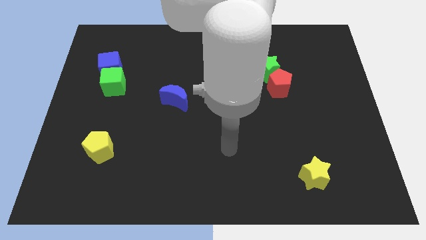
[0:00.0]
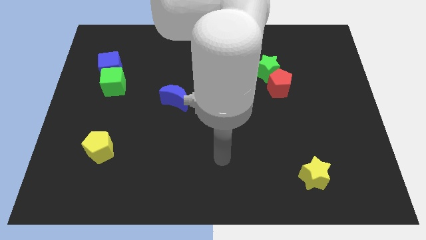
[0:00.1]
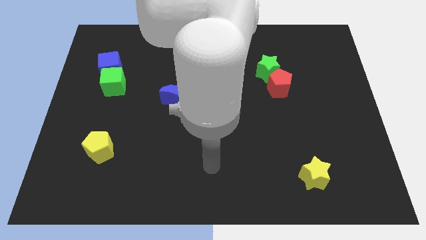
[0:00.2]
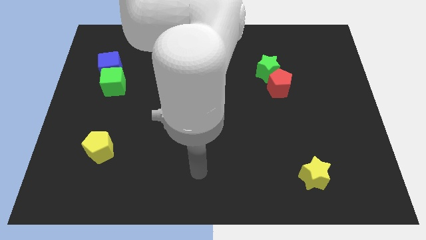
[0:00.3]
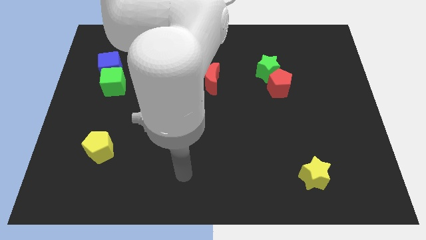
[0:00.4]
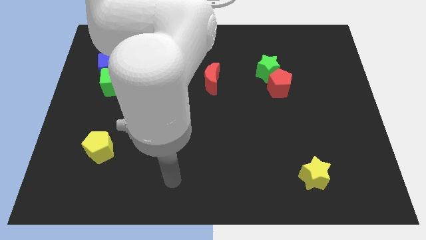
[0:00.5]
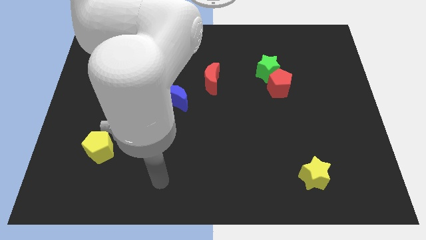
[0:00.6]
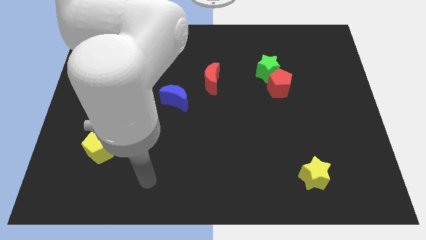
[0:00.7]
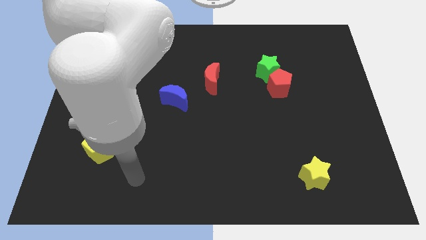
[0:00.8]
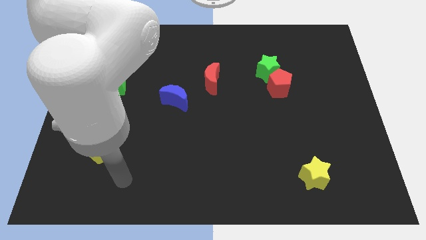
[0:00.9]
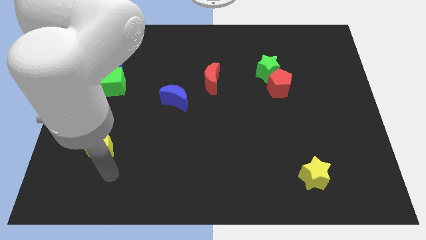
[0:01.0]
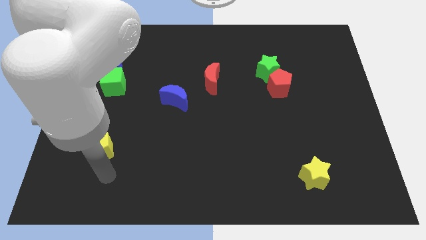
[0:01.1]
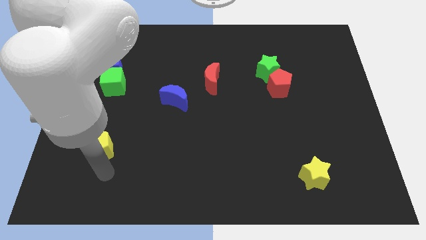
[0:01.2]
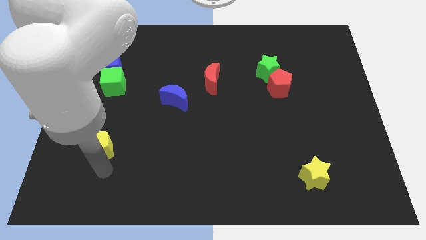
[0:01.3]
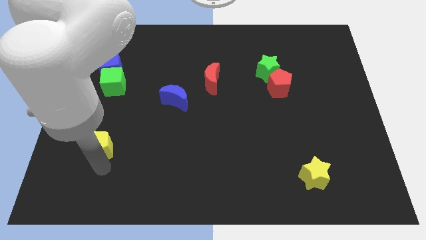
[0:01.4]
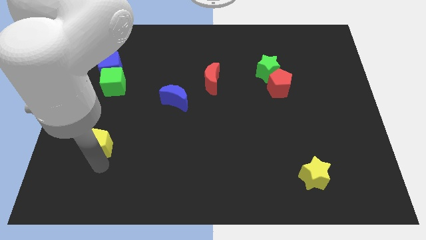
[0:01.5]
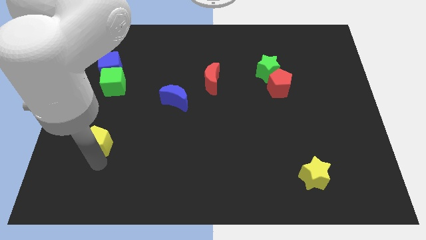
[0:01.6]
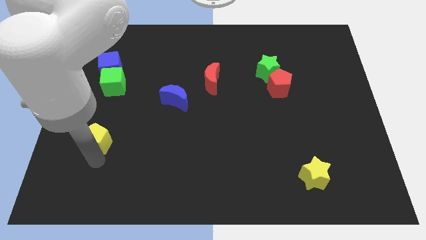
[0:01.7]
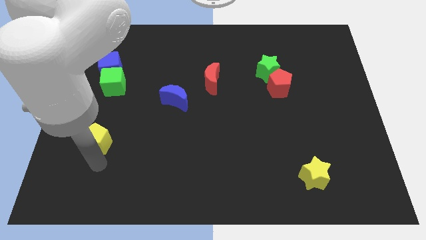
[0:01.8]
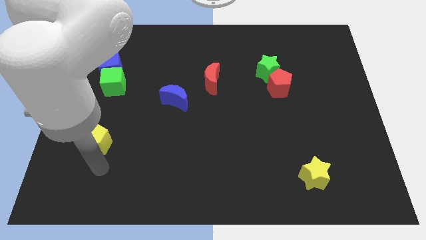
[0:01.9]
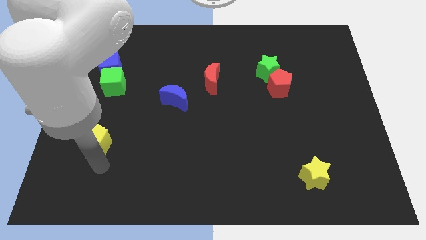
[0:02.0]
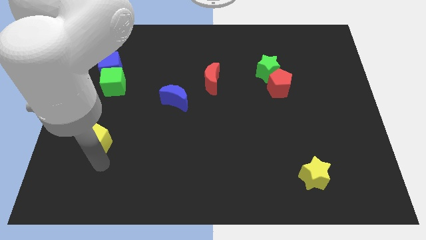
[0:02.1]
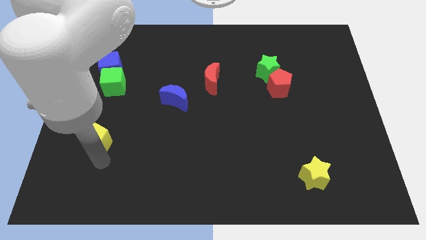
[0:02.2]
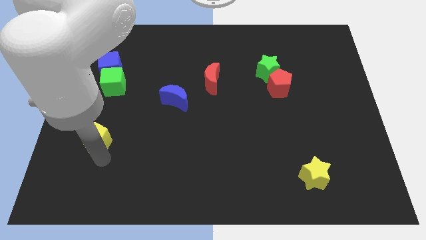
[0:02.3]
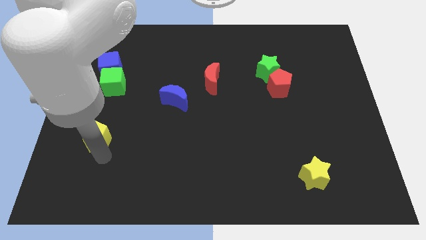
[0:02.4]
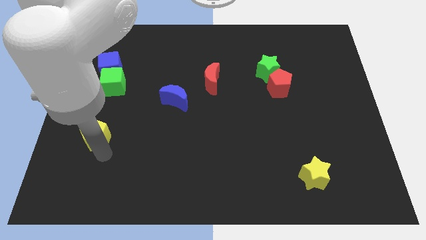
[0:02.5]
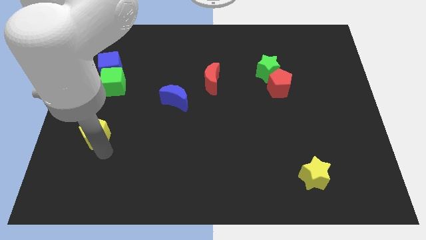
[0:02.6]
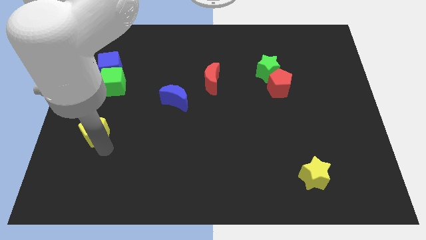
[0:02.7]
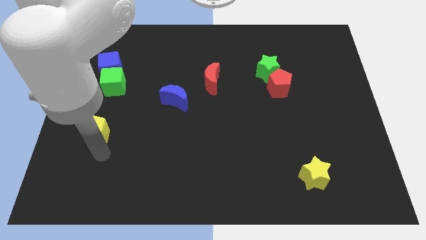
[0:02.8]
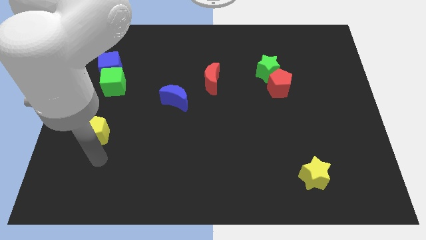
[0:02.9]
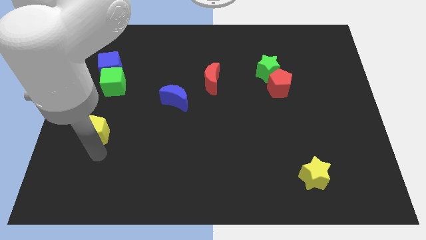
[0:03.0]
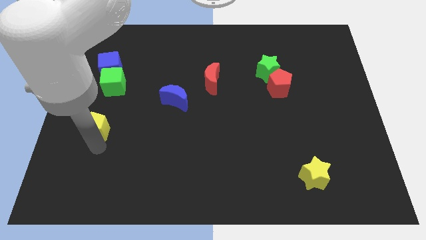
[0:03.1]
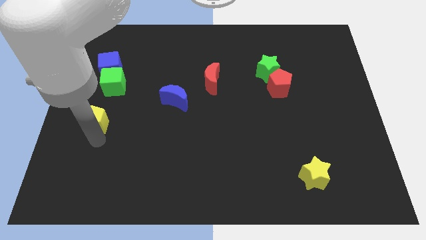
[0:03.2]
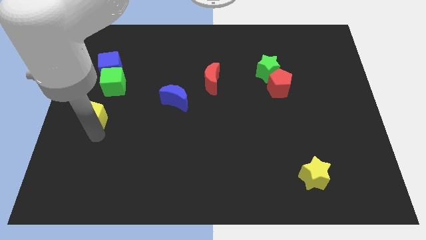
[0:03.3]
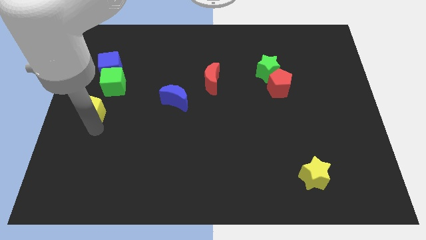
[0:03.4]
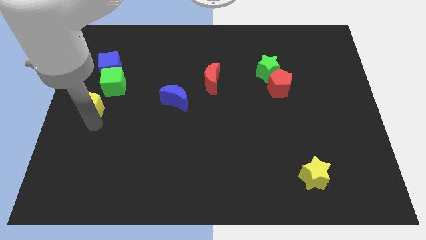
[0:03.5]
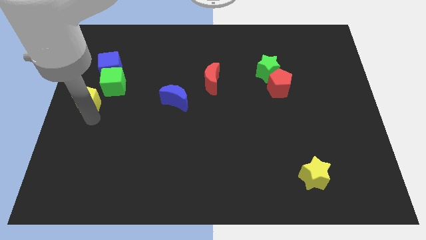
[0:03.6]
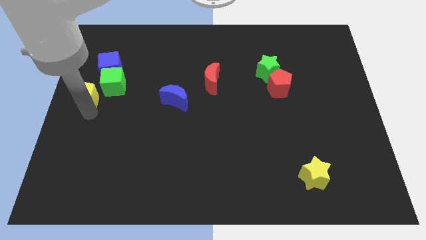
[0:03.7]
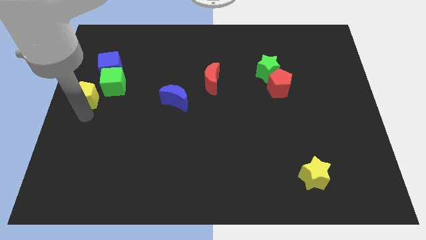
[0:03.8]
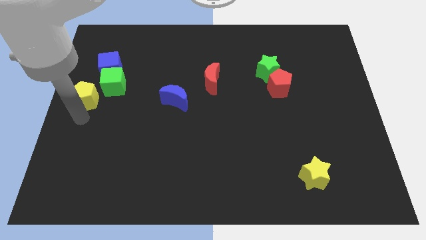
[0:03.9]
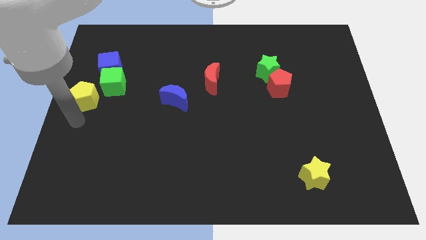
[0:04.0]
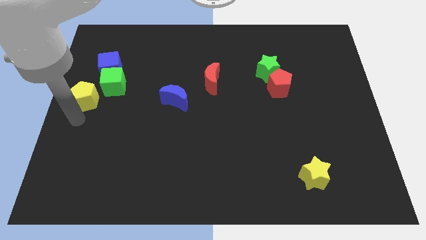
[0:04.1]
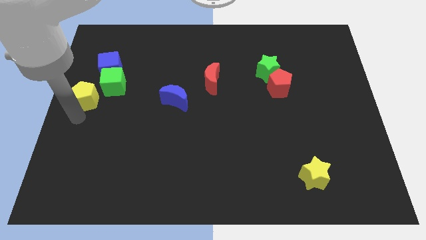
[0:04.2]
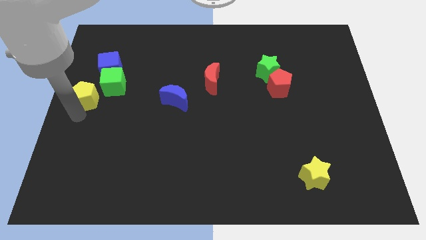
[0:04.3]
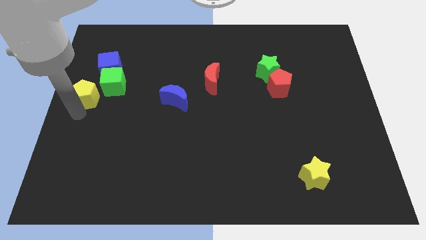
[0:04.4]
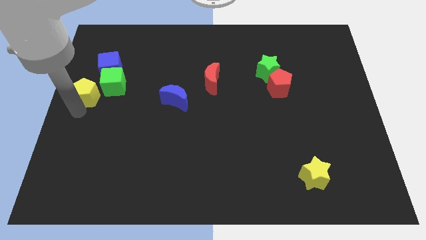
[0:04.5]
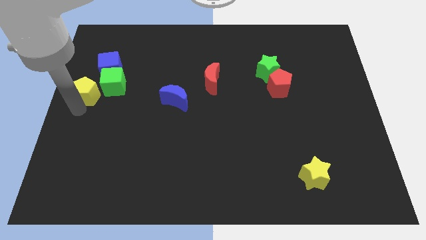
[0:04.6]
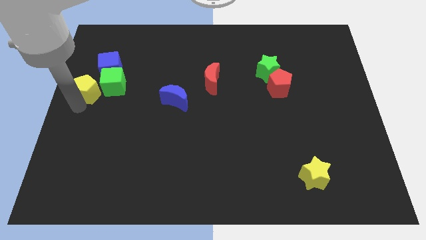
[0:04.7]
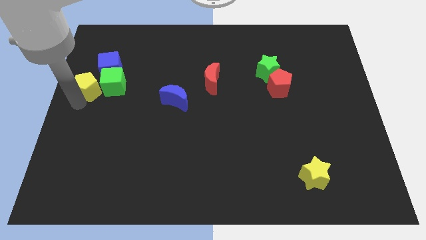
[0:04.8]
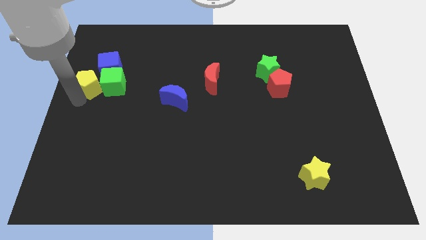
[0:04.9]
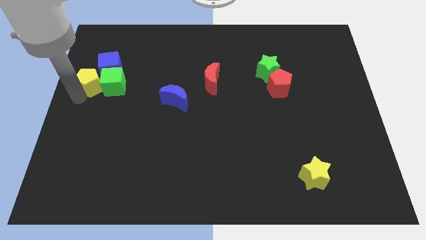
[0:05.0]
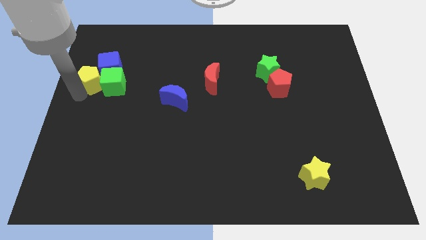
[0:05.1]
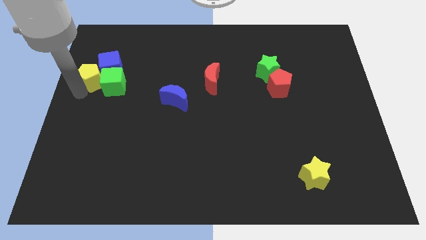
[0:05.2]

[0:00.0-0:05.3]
push the yellow pentagon towards the blue cube

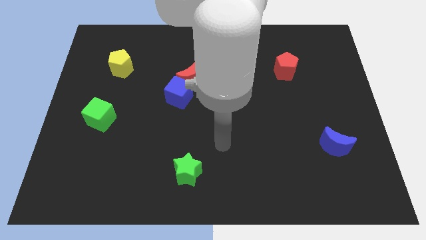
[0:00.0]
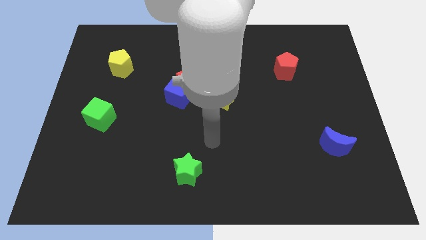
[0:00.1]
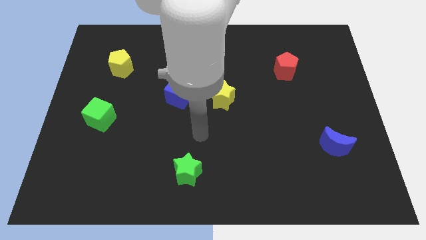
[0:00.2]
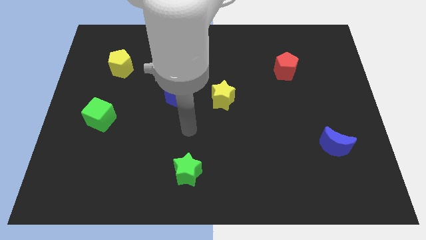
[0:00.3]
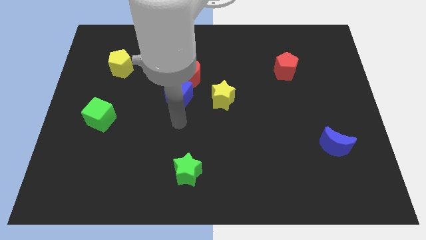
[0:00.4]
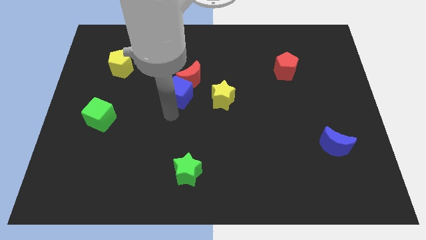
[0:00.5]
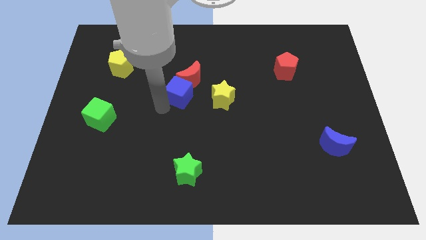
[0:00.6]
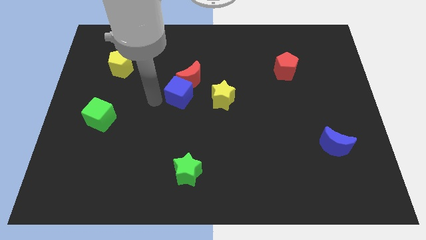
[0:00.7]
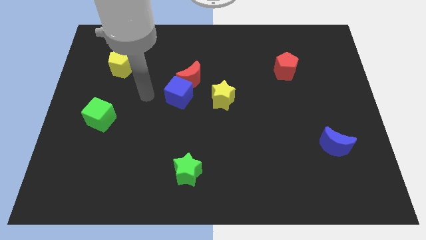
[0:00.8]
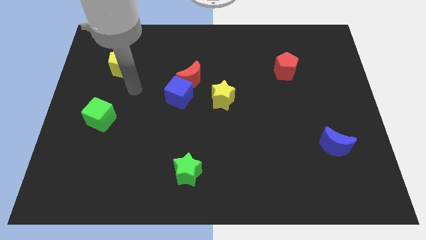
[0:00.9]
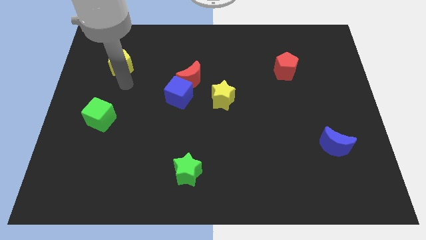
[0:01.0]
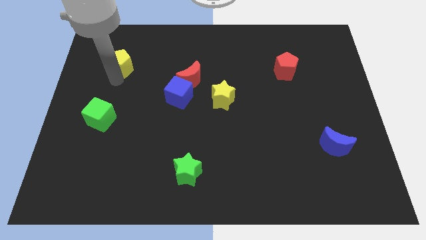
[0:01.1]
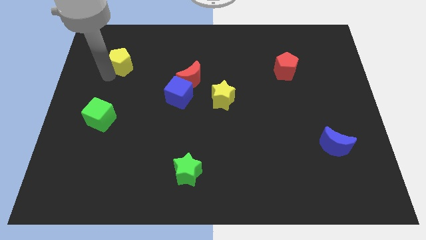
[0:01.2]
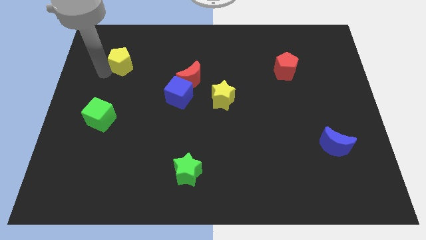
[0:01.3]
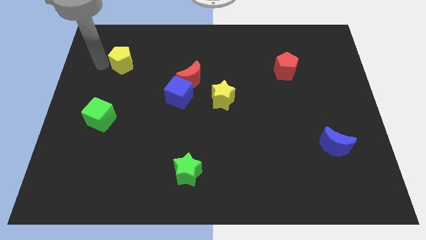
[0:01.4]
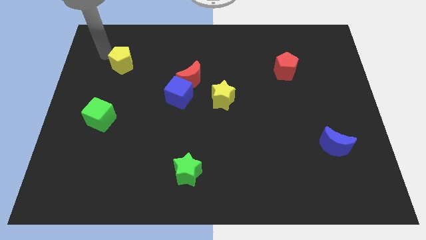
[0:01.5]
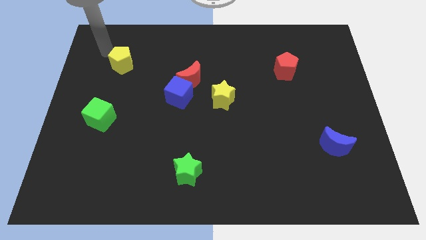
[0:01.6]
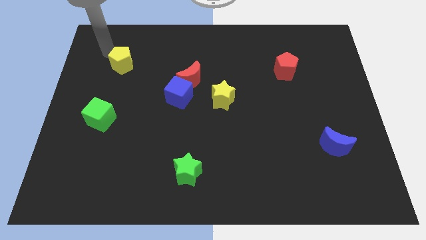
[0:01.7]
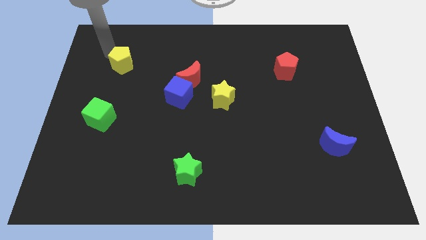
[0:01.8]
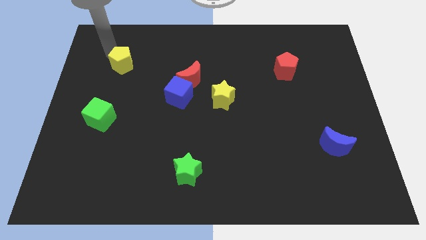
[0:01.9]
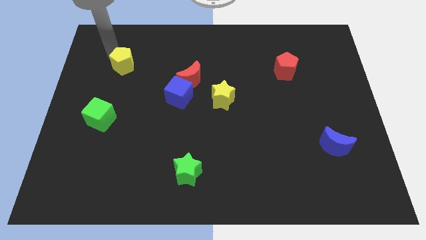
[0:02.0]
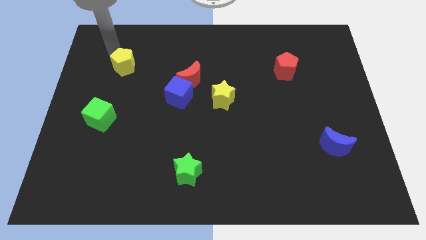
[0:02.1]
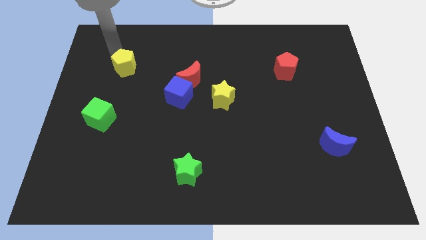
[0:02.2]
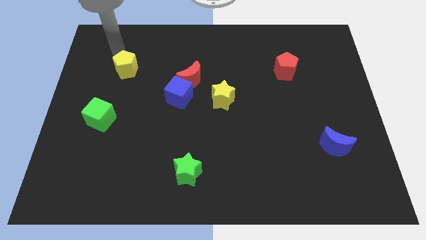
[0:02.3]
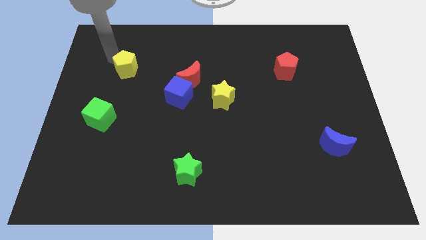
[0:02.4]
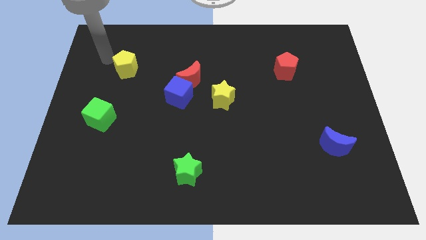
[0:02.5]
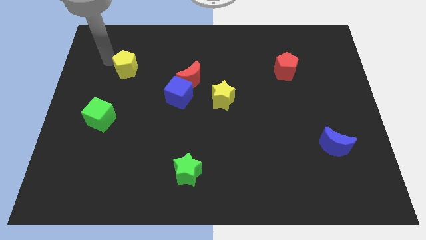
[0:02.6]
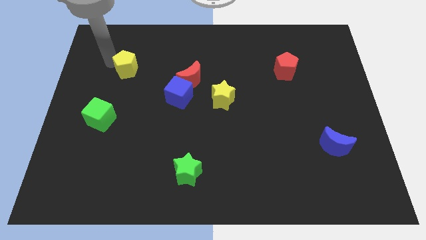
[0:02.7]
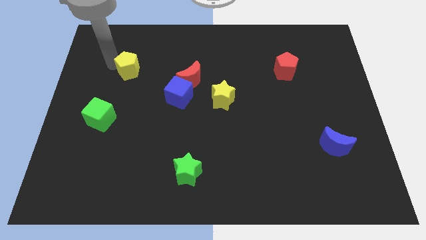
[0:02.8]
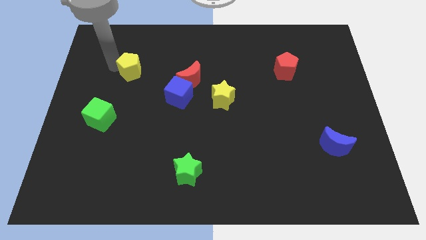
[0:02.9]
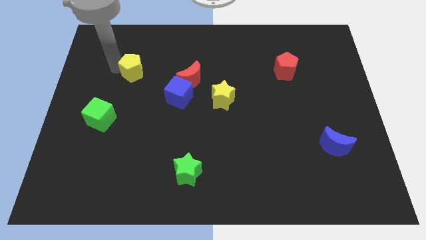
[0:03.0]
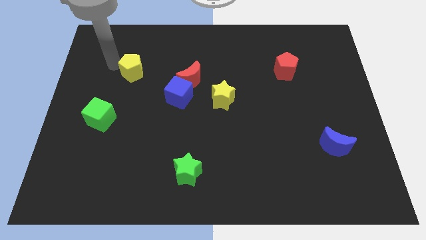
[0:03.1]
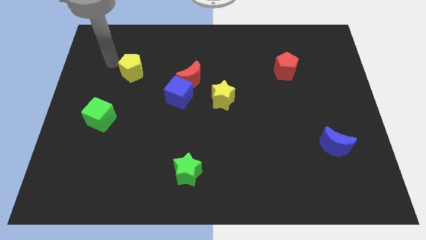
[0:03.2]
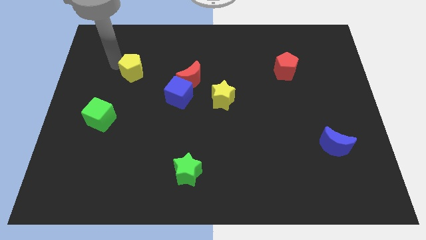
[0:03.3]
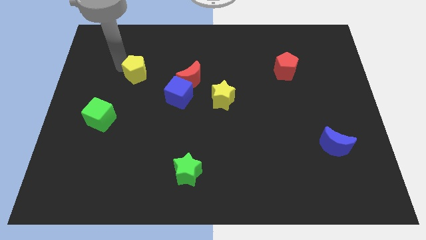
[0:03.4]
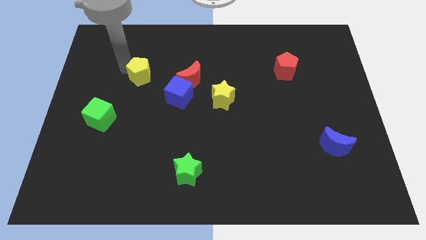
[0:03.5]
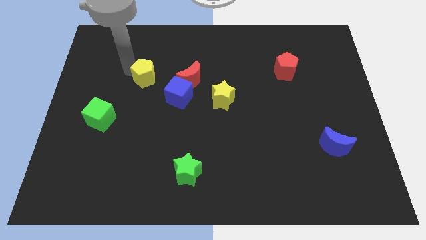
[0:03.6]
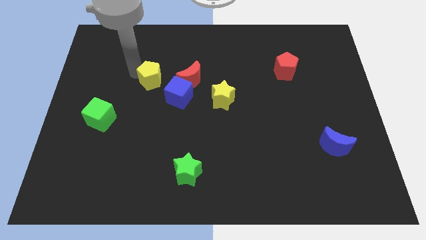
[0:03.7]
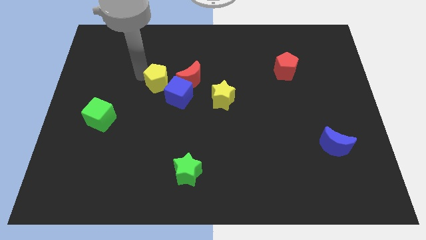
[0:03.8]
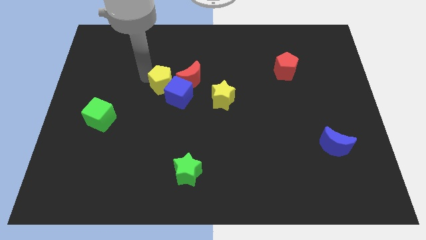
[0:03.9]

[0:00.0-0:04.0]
move the yellow pentagon close to the blue cube
